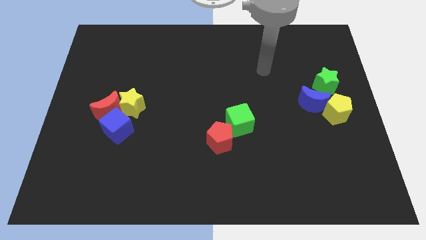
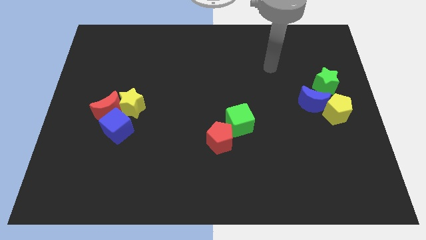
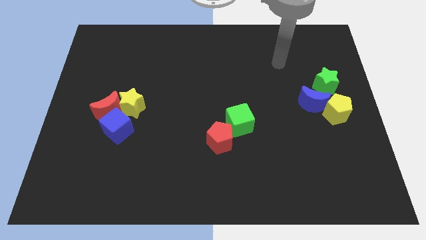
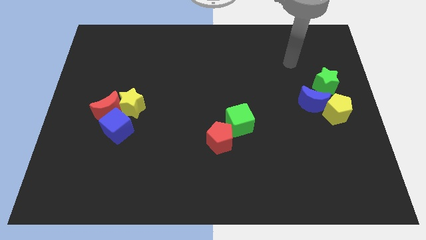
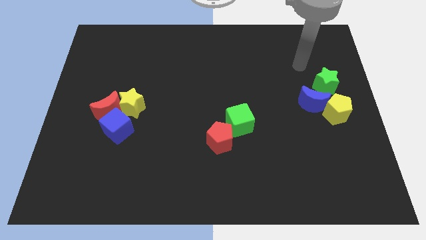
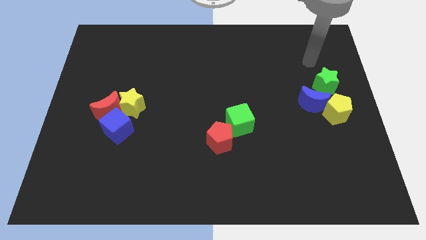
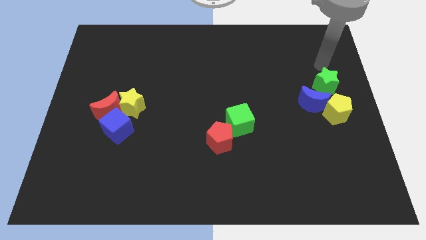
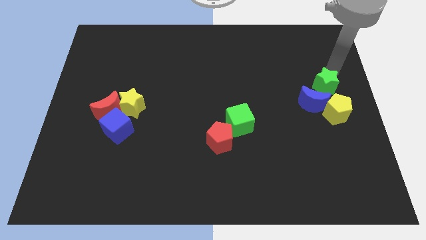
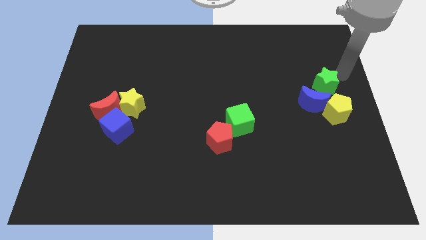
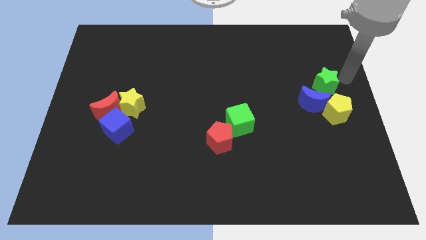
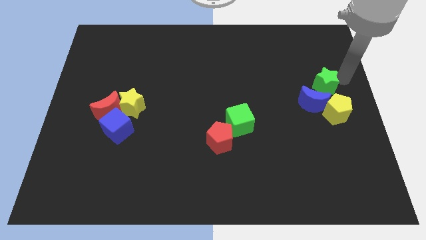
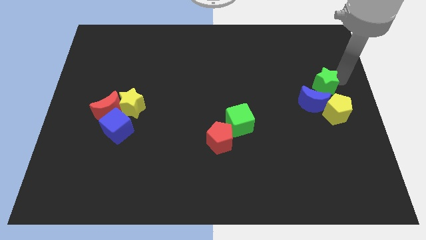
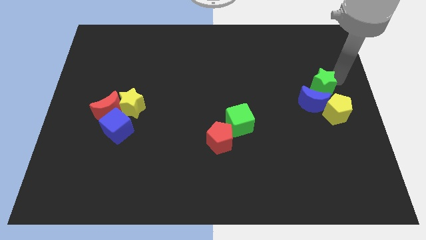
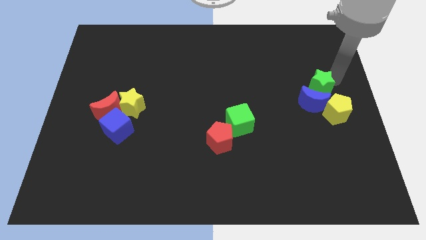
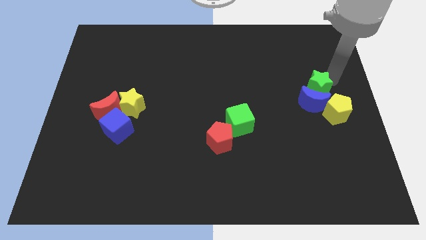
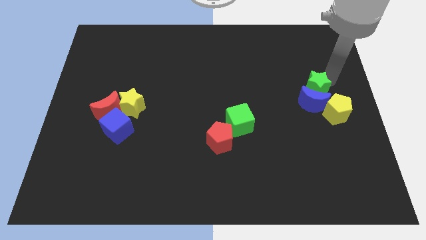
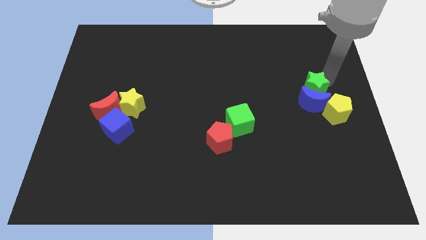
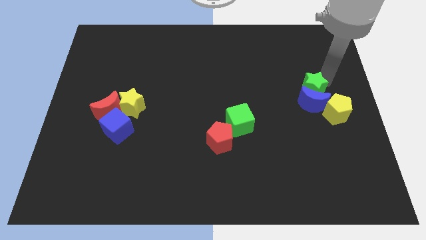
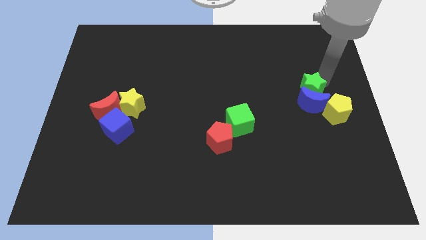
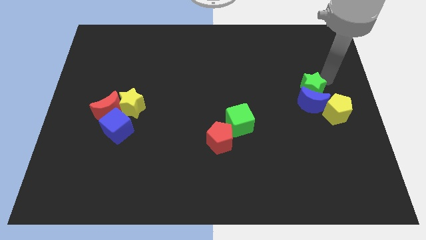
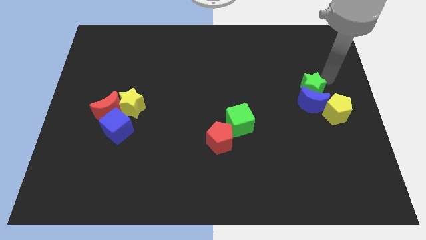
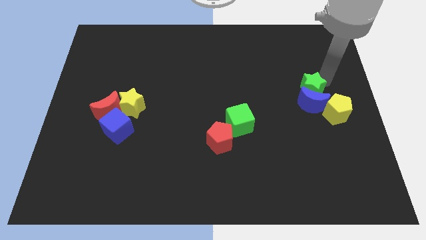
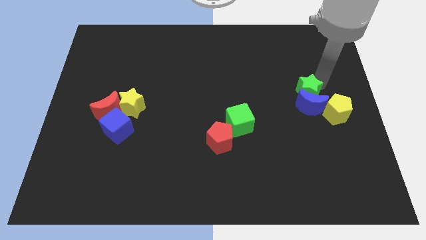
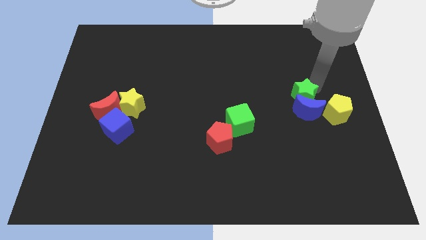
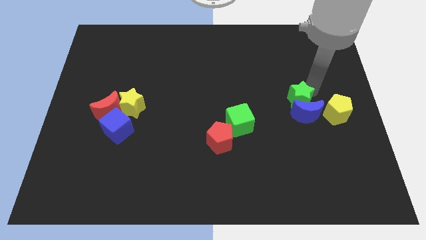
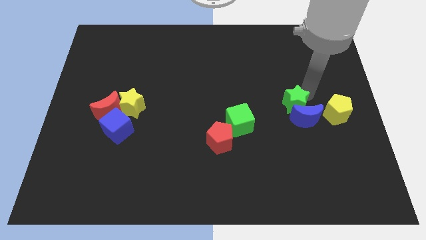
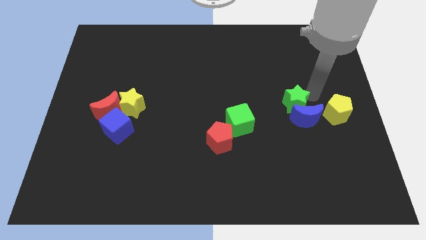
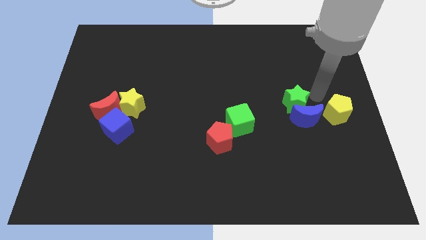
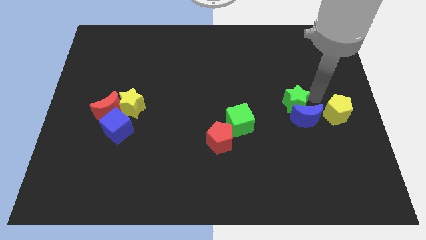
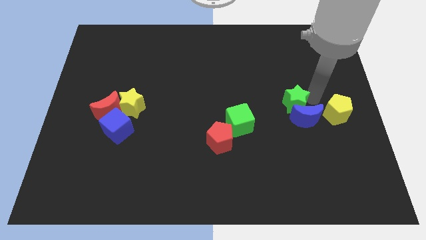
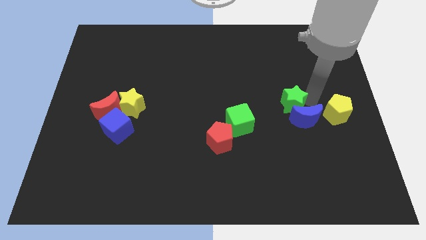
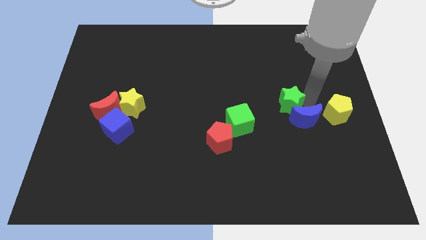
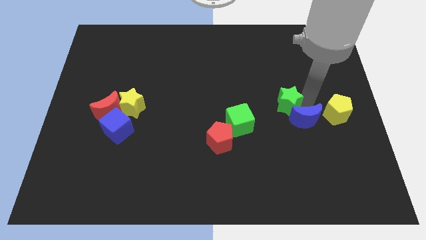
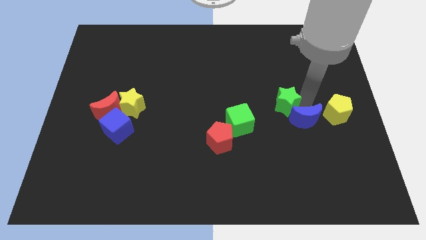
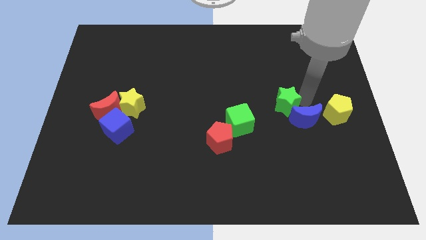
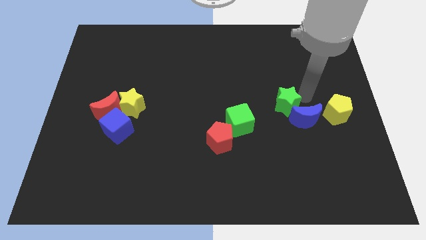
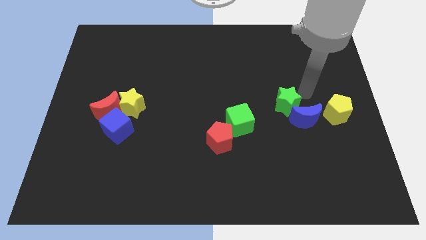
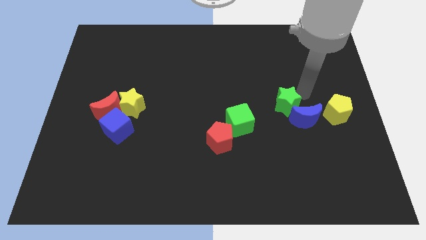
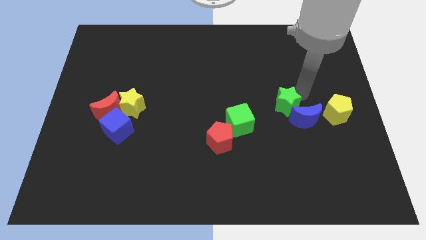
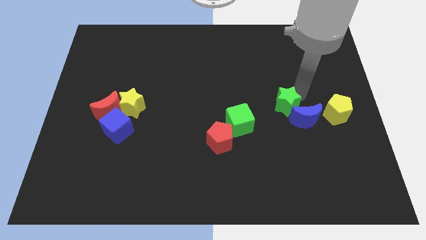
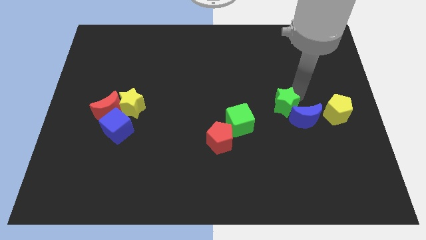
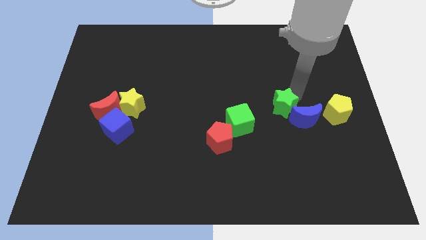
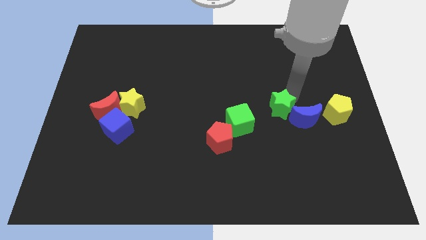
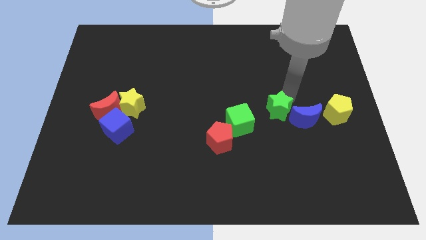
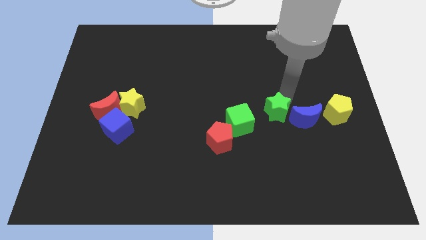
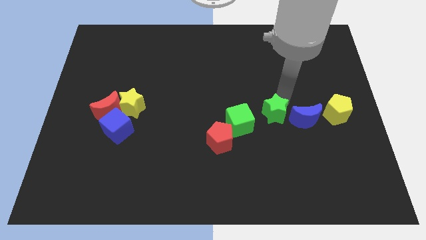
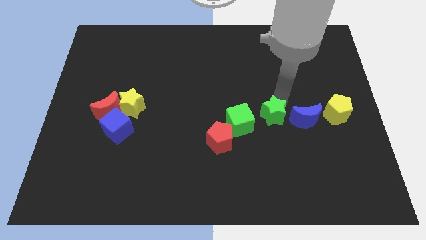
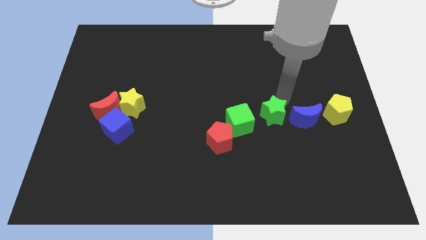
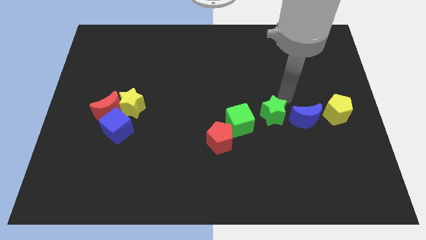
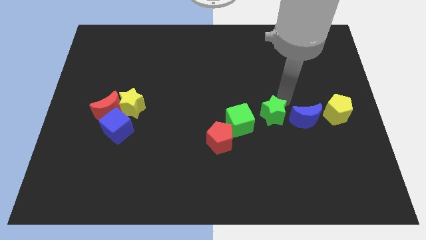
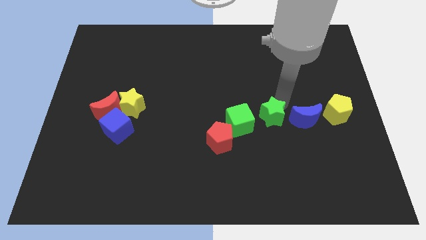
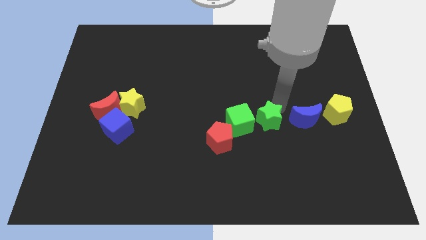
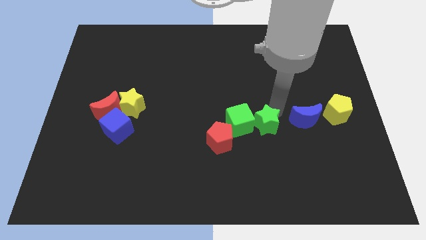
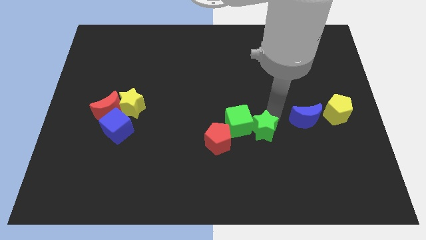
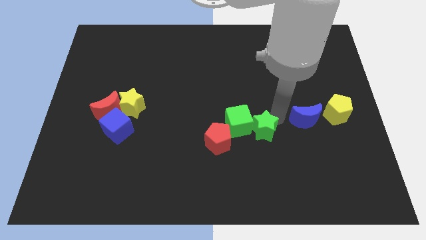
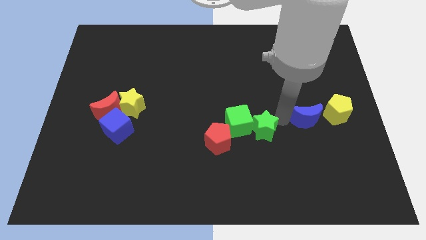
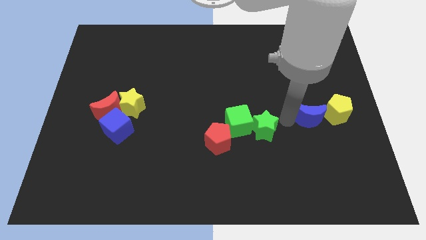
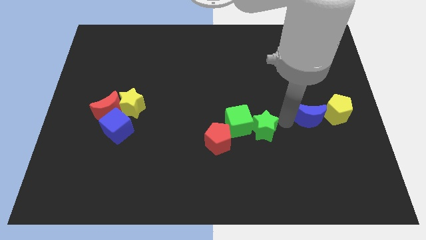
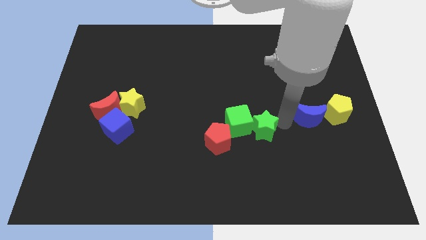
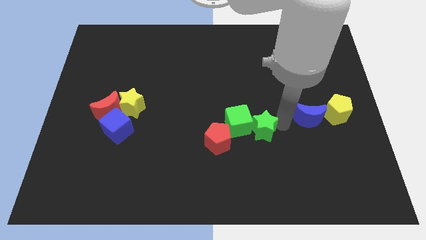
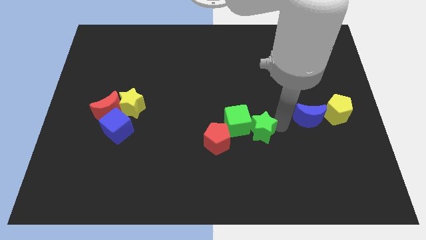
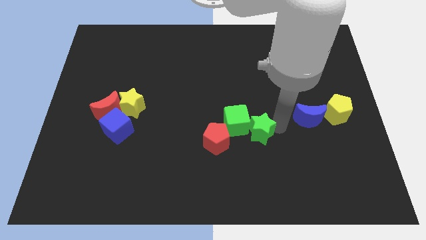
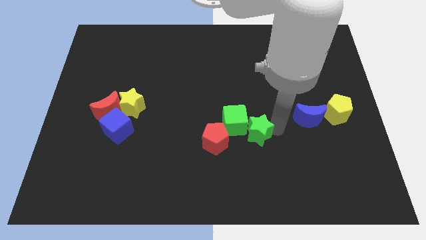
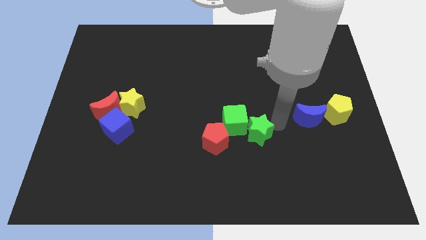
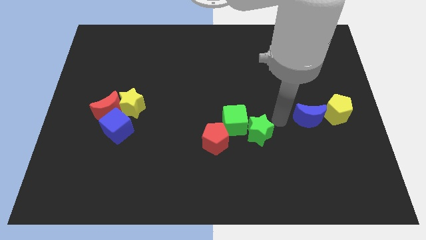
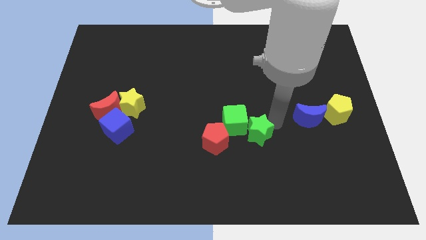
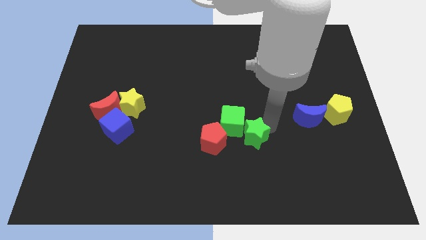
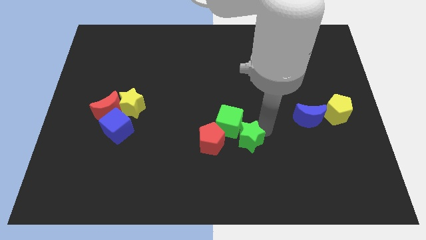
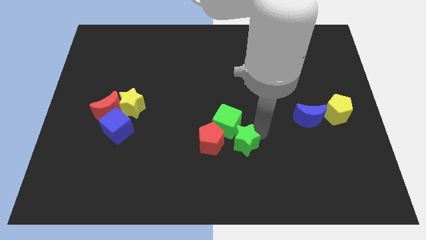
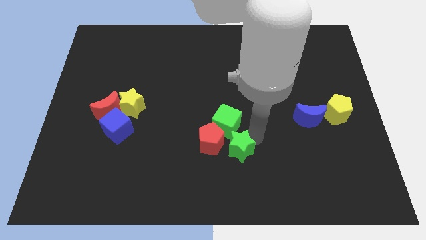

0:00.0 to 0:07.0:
put the green star next to the red pentagon
